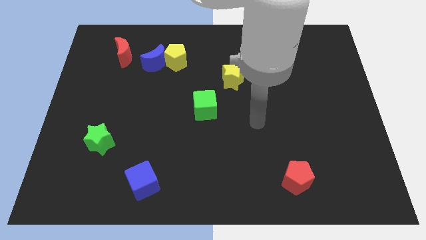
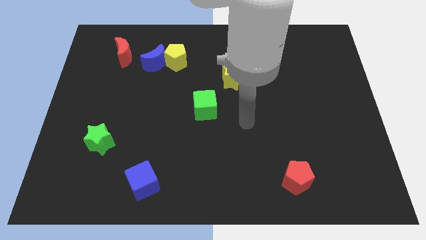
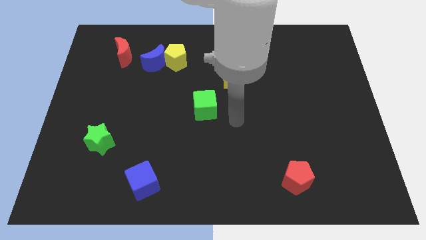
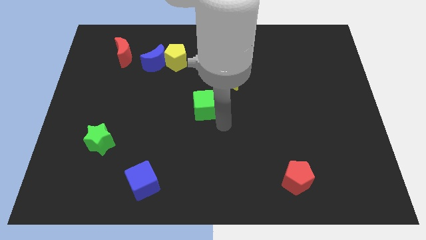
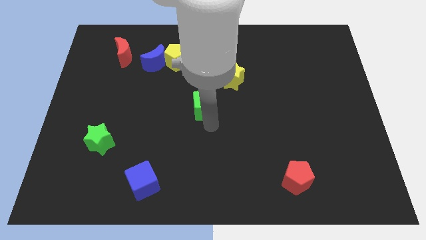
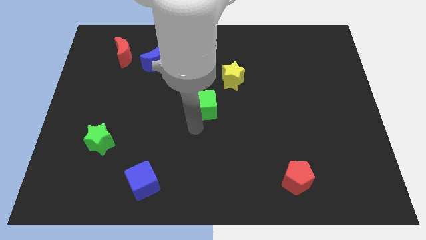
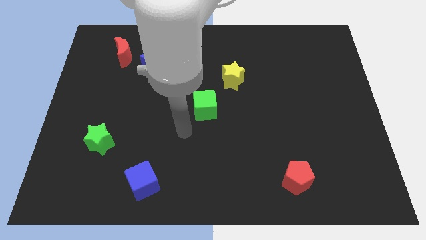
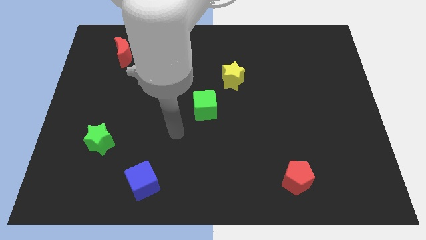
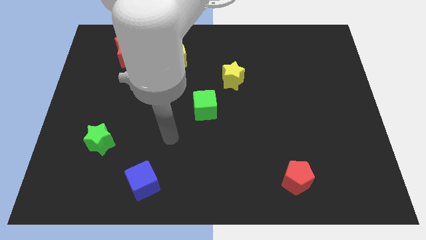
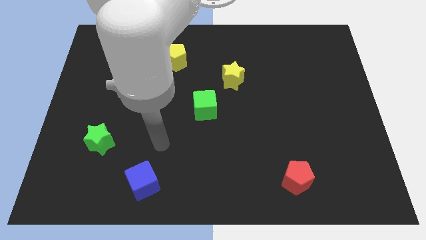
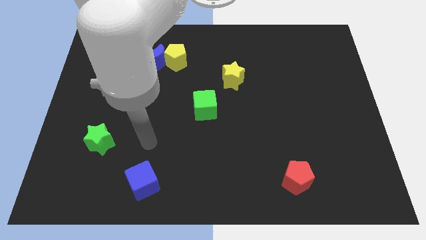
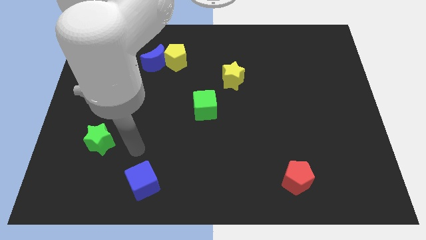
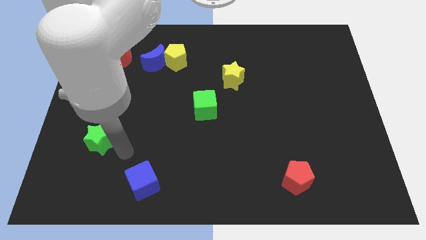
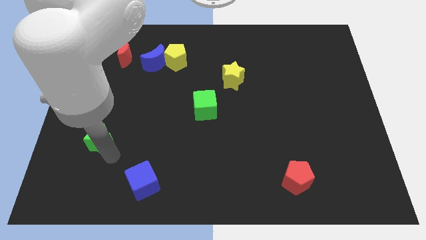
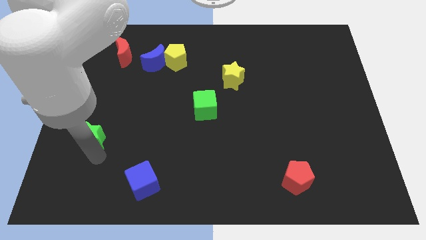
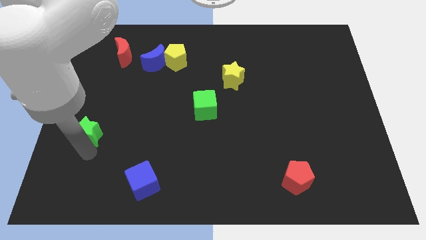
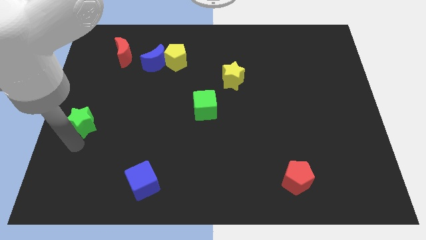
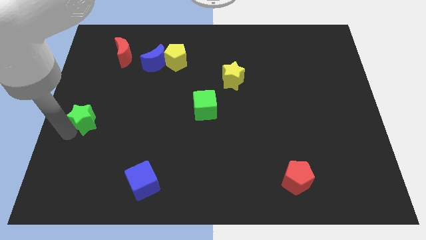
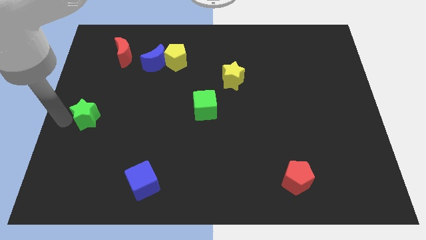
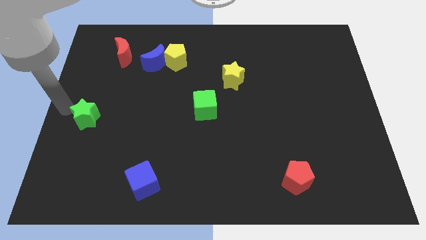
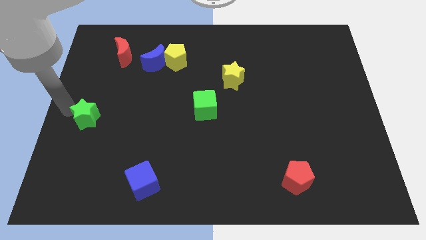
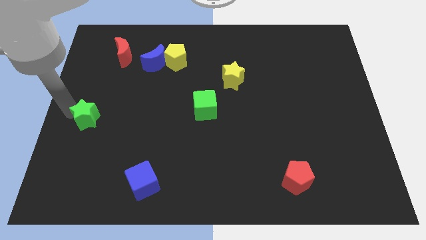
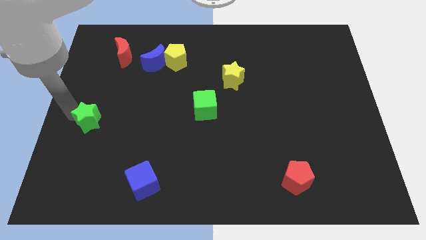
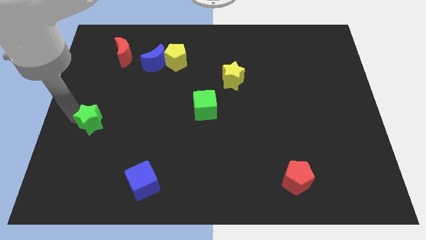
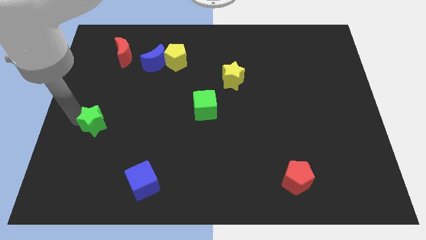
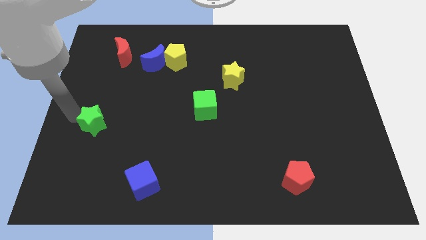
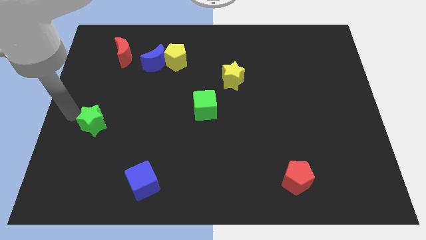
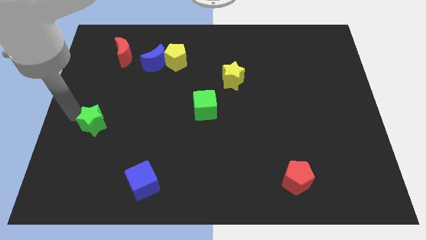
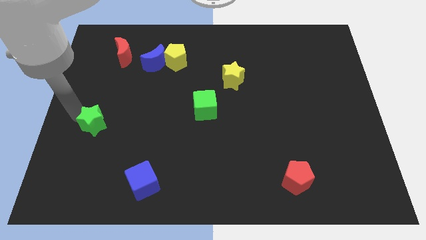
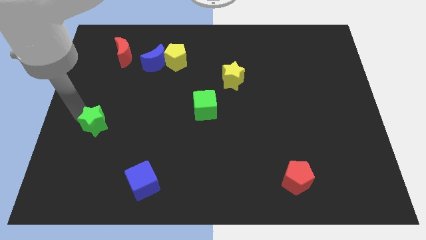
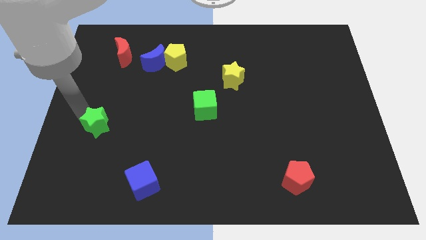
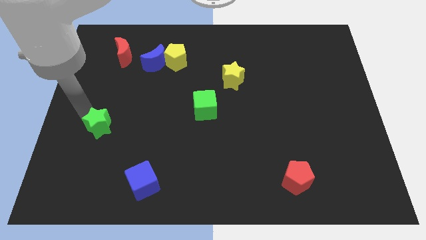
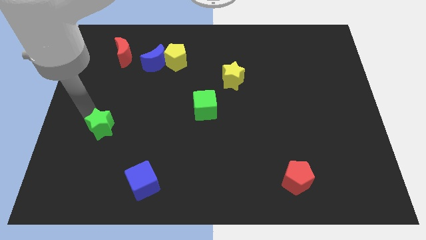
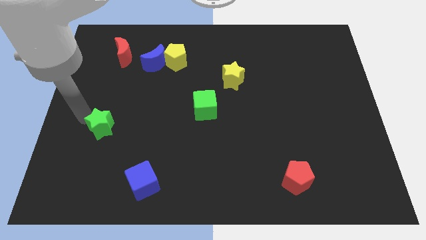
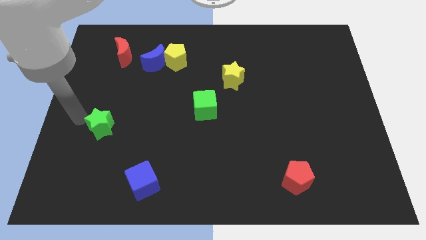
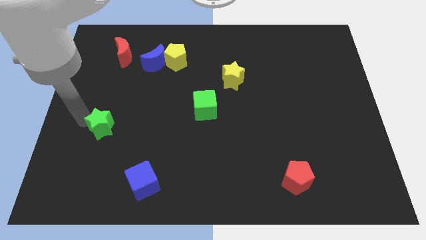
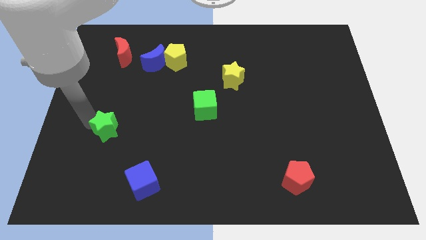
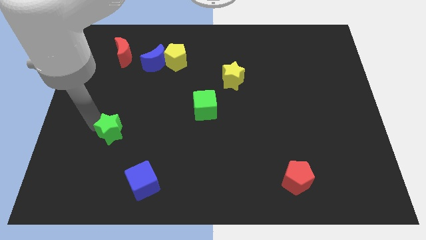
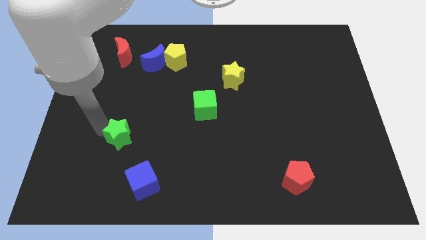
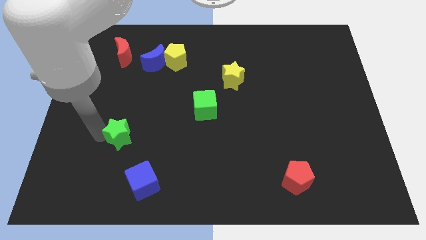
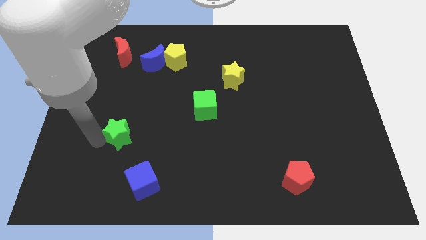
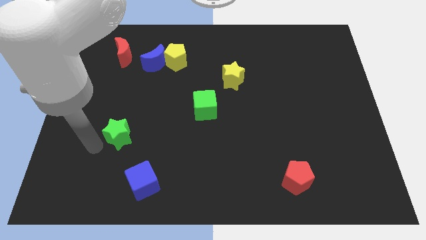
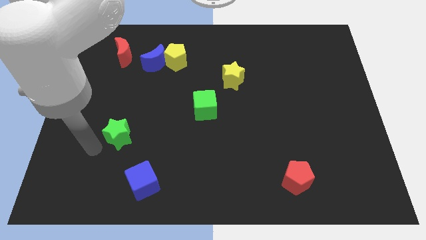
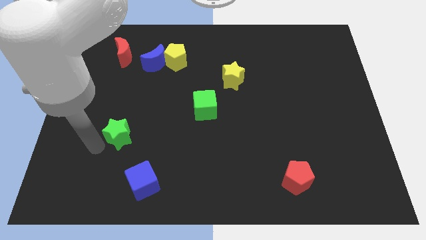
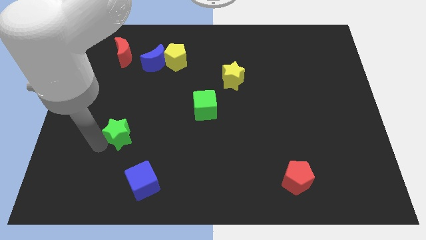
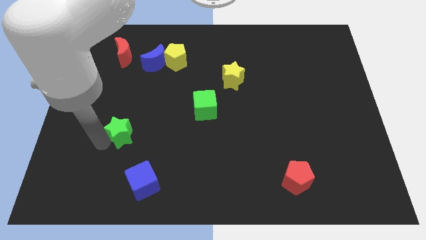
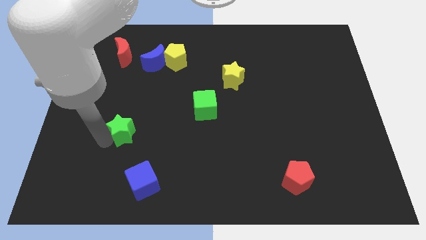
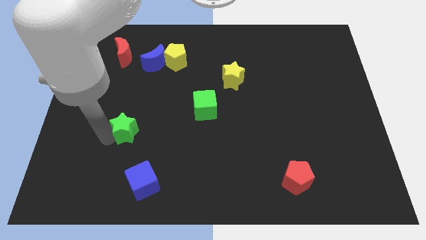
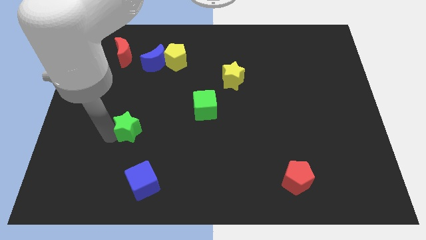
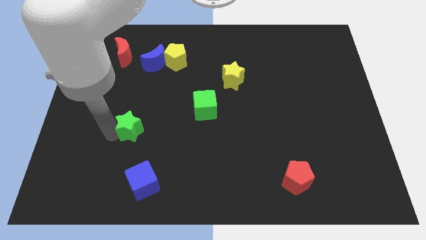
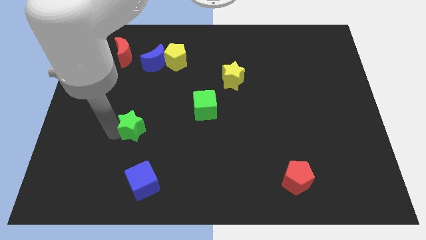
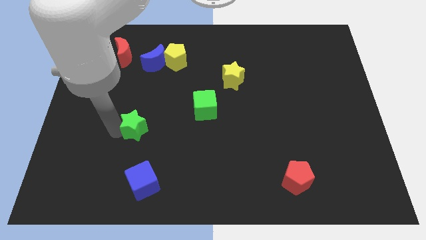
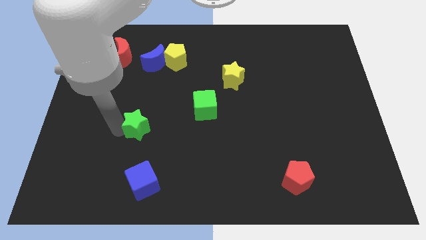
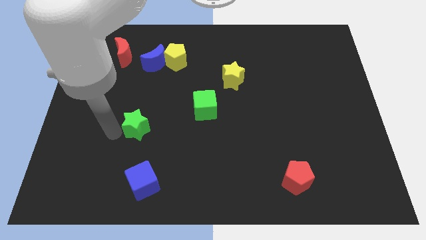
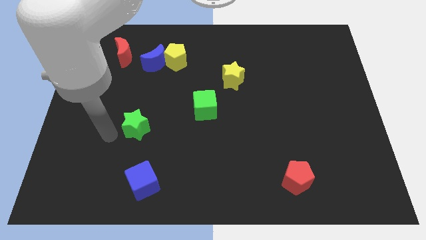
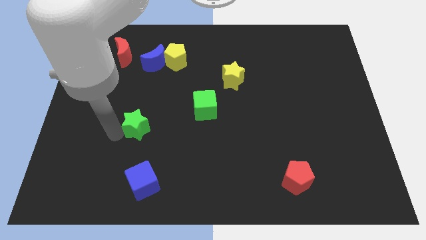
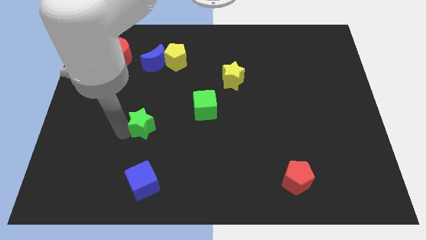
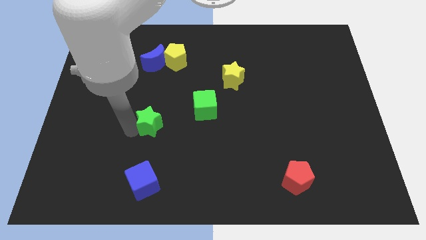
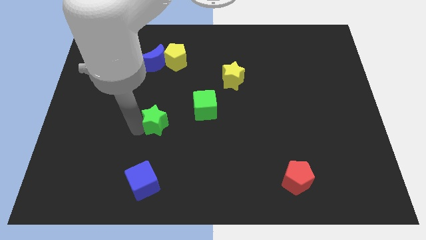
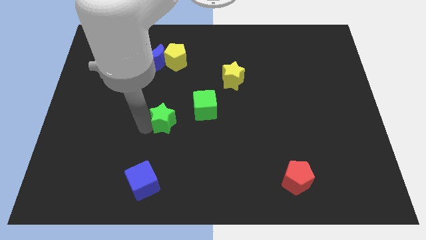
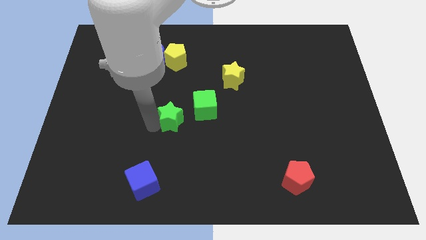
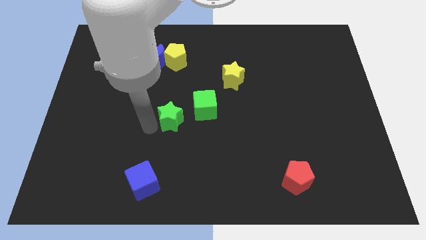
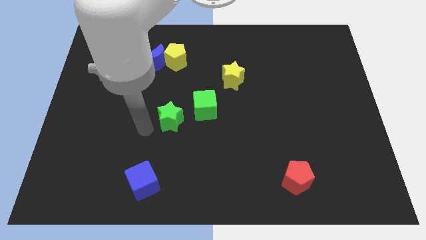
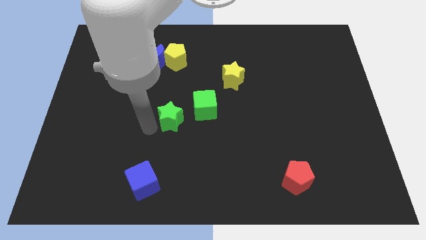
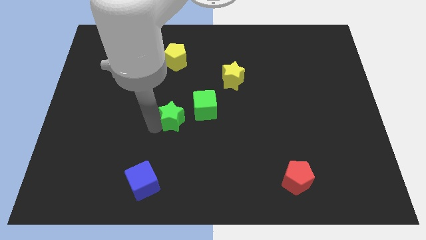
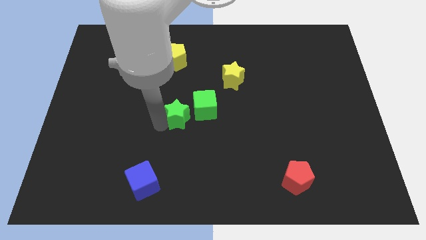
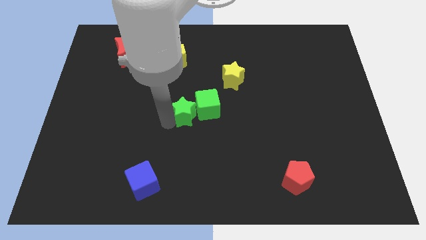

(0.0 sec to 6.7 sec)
slide the green star to the green cube
